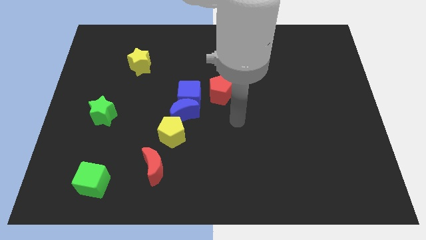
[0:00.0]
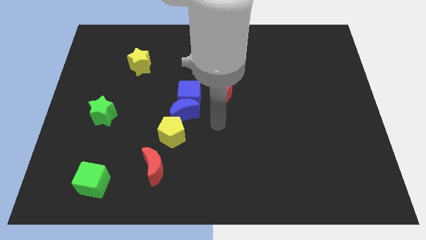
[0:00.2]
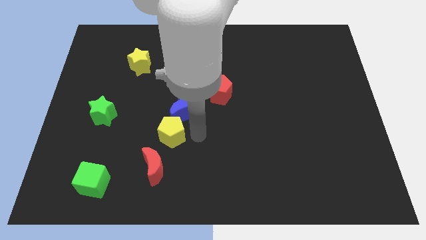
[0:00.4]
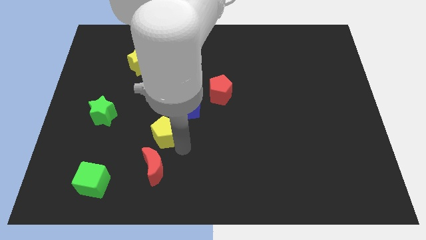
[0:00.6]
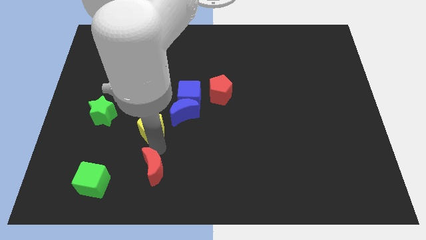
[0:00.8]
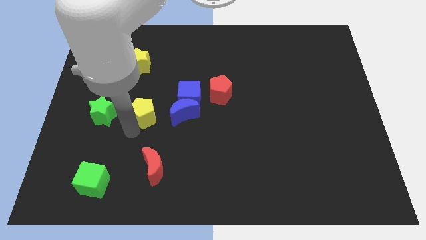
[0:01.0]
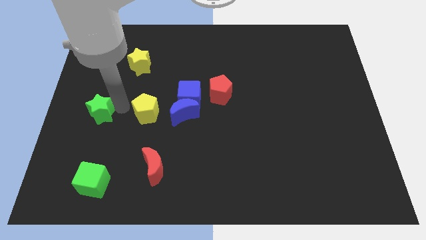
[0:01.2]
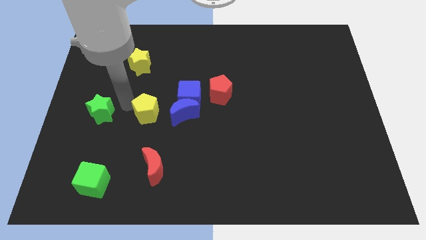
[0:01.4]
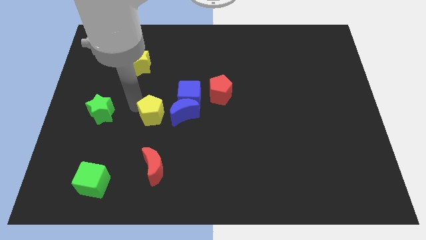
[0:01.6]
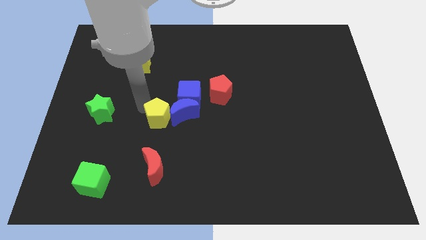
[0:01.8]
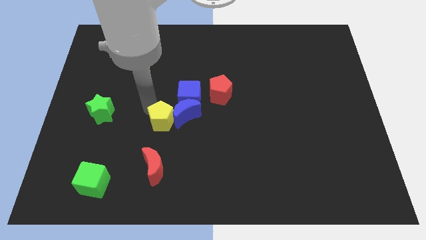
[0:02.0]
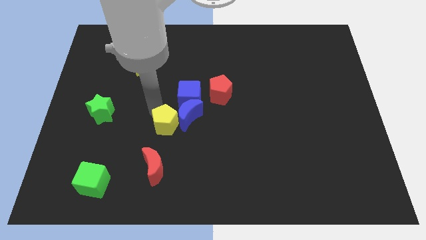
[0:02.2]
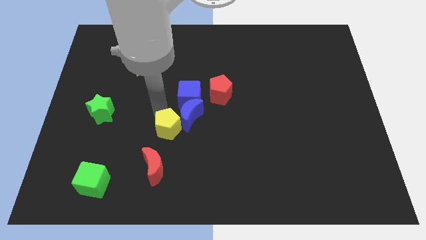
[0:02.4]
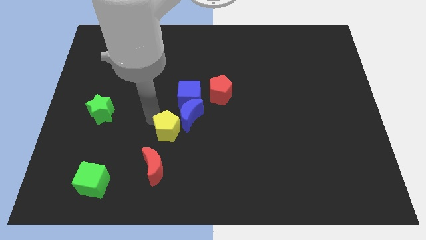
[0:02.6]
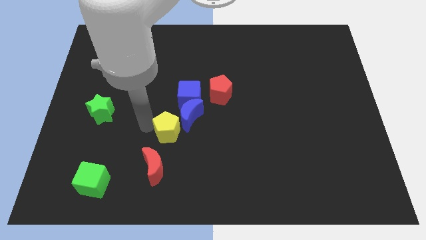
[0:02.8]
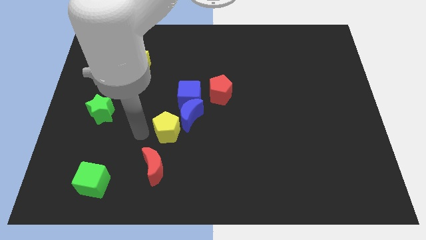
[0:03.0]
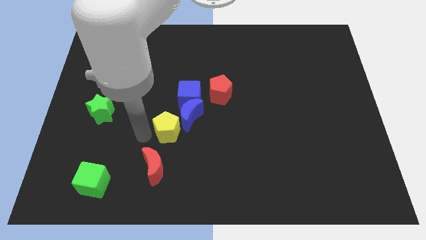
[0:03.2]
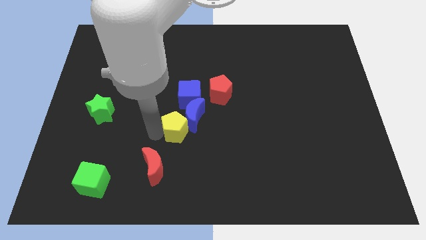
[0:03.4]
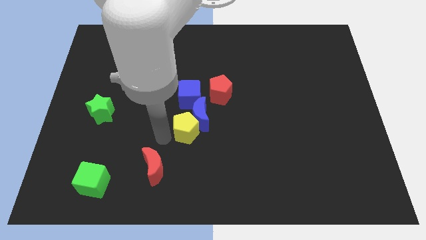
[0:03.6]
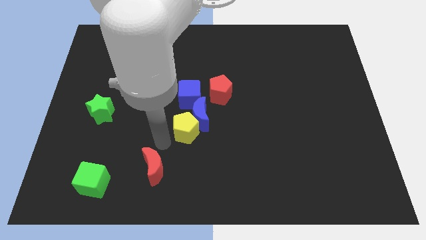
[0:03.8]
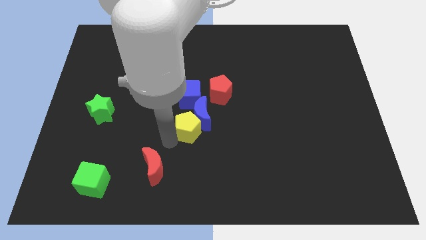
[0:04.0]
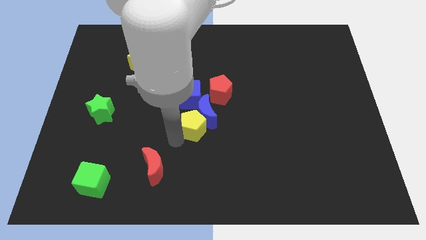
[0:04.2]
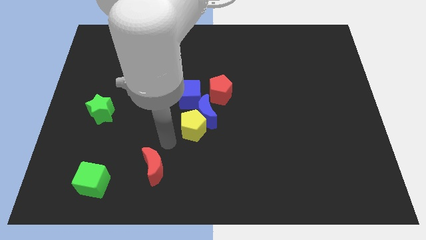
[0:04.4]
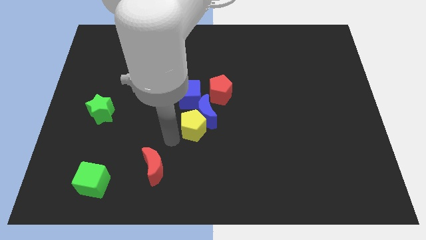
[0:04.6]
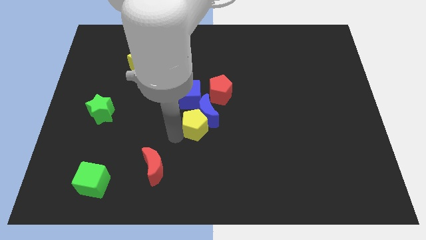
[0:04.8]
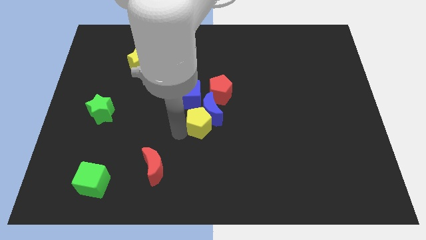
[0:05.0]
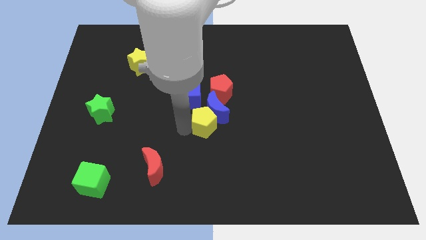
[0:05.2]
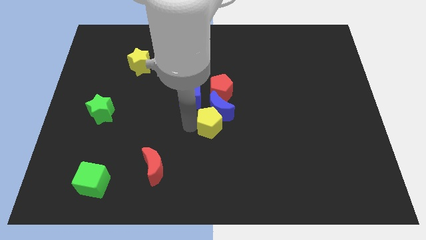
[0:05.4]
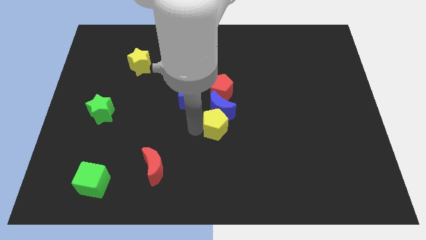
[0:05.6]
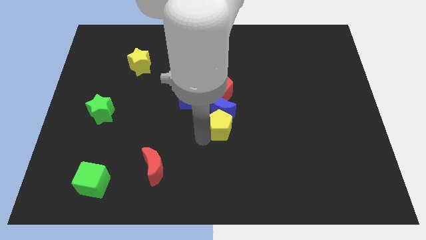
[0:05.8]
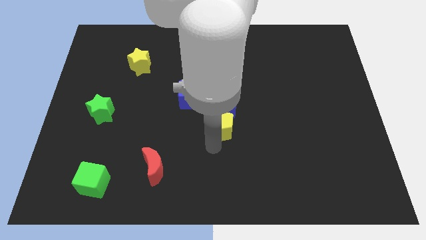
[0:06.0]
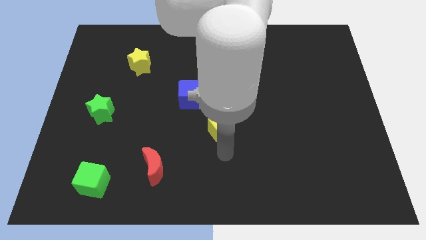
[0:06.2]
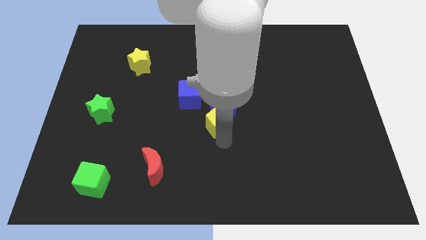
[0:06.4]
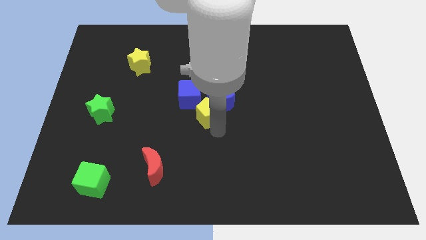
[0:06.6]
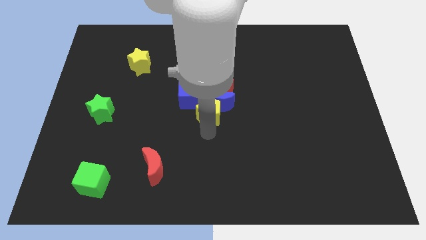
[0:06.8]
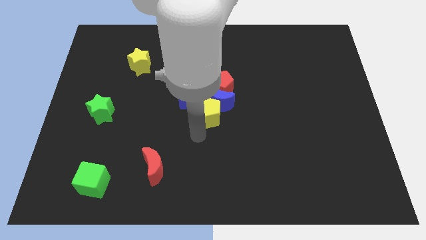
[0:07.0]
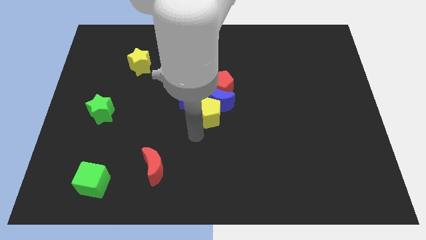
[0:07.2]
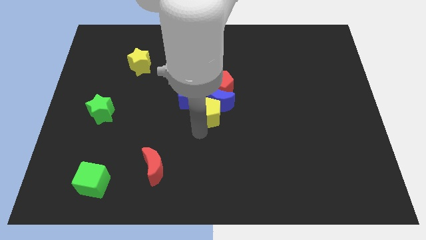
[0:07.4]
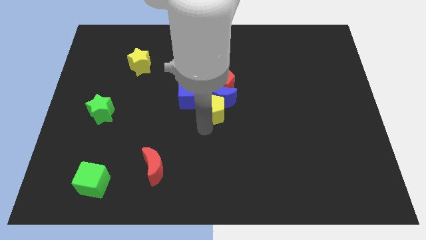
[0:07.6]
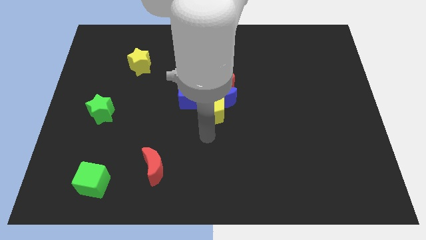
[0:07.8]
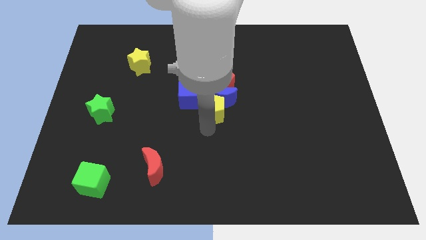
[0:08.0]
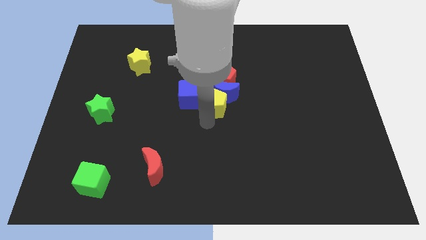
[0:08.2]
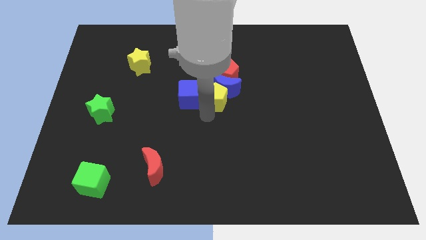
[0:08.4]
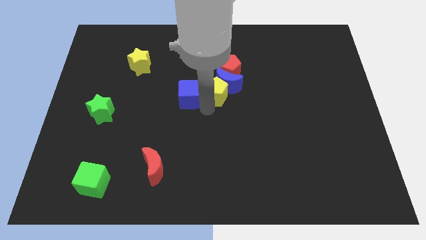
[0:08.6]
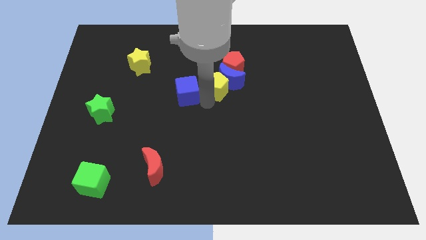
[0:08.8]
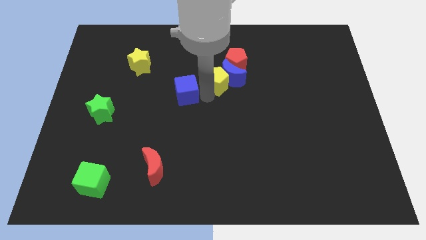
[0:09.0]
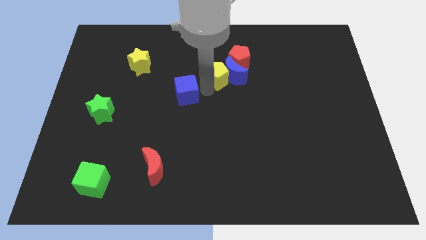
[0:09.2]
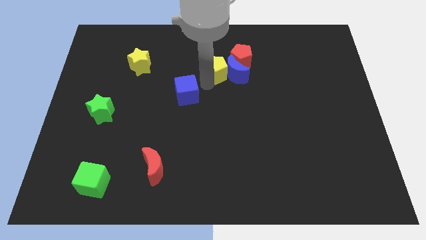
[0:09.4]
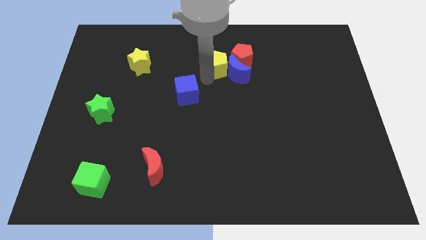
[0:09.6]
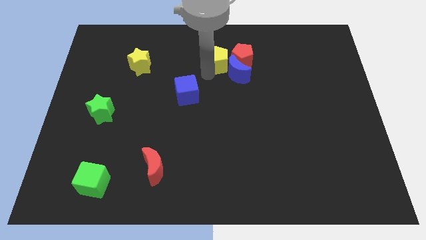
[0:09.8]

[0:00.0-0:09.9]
slide the yellow pentagon next to the red pentagon

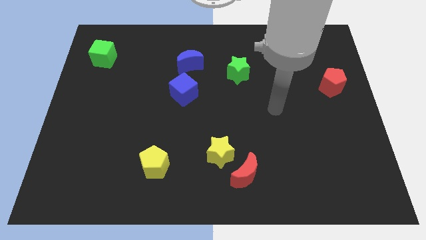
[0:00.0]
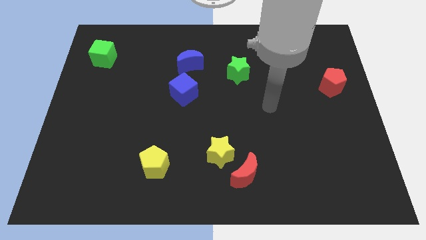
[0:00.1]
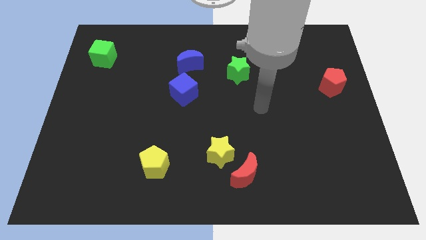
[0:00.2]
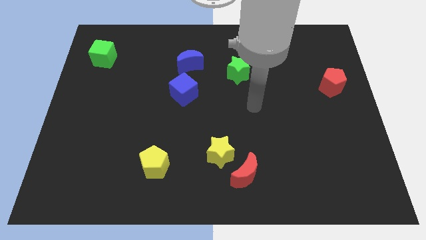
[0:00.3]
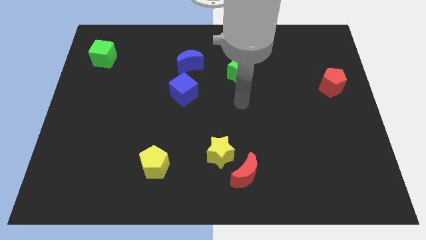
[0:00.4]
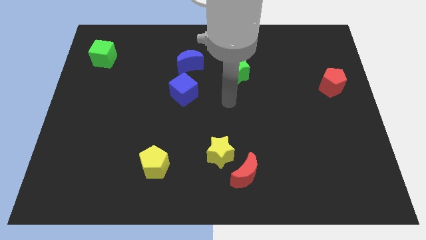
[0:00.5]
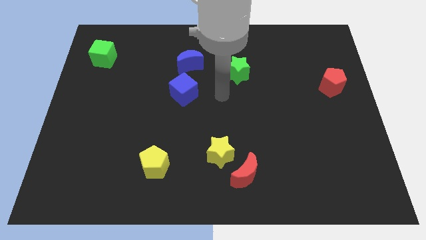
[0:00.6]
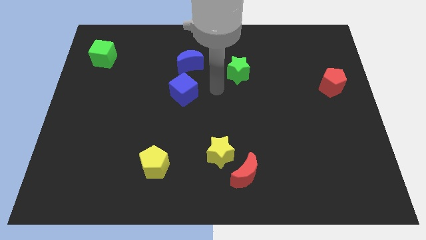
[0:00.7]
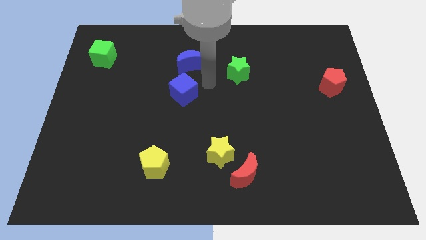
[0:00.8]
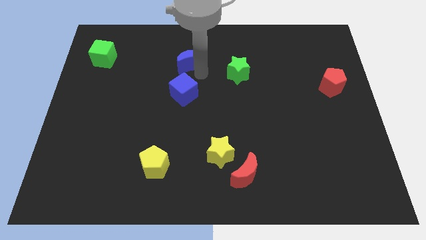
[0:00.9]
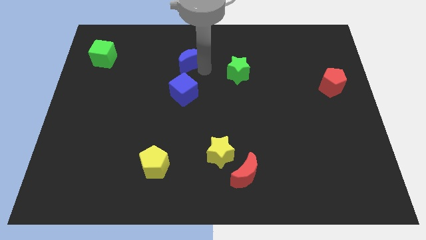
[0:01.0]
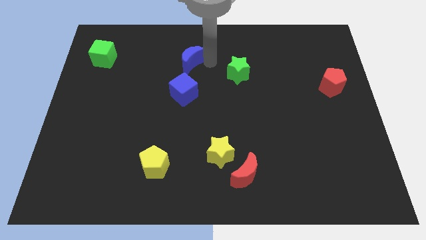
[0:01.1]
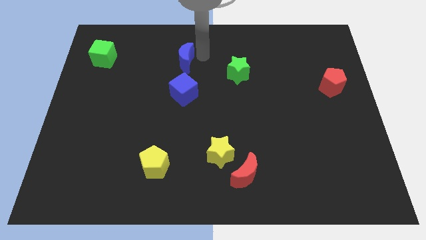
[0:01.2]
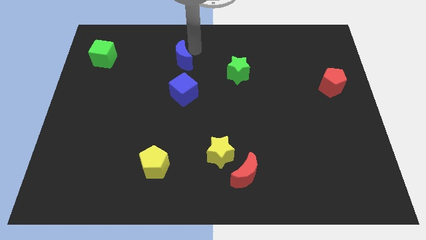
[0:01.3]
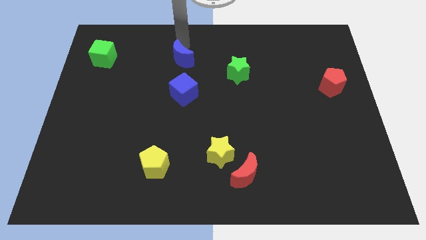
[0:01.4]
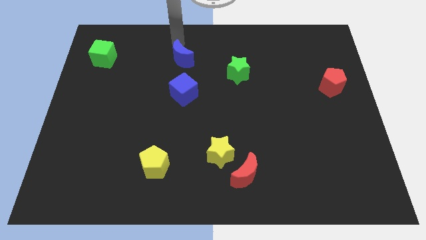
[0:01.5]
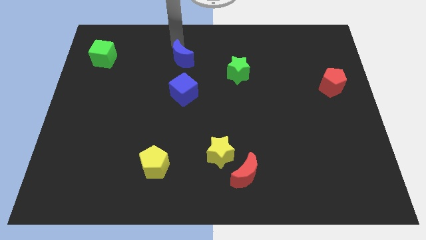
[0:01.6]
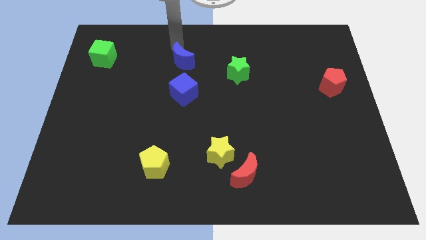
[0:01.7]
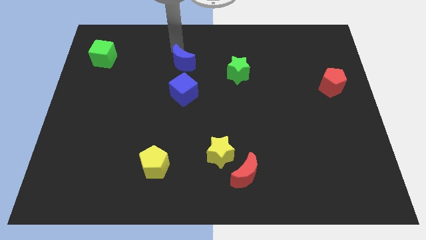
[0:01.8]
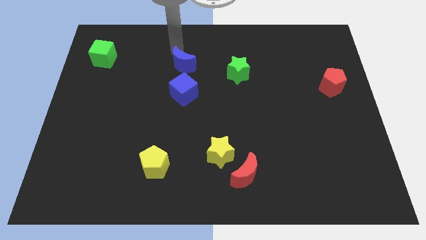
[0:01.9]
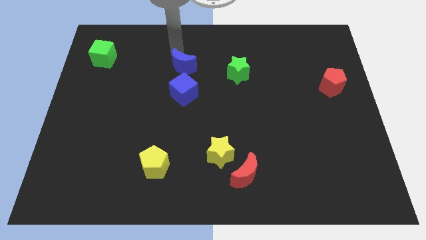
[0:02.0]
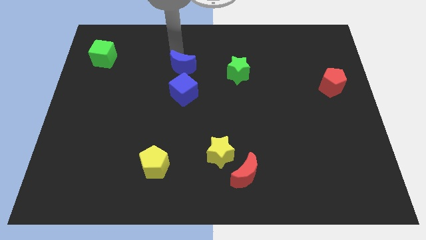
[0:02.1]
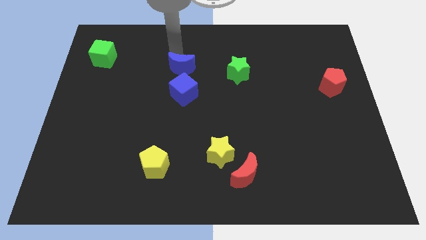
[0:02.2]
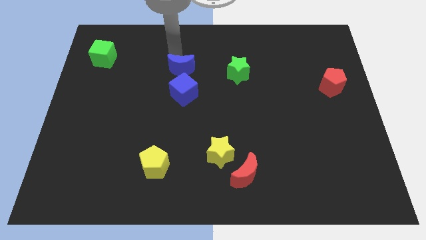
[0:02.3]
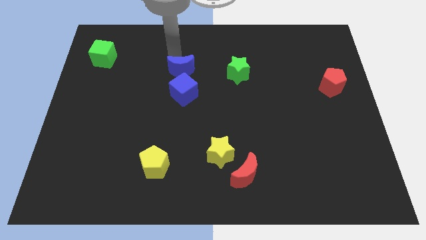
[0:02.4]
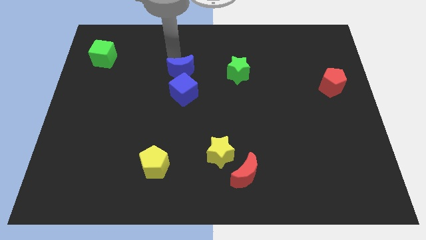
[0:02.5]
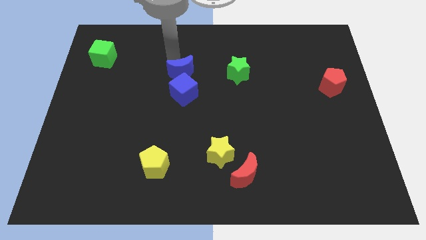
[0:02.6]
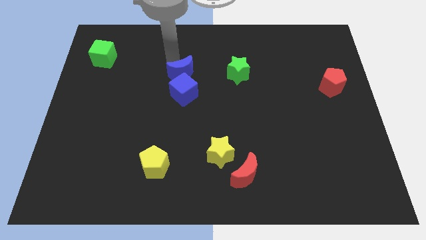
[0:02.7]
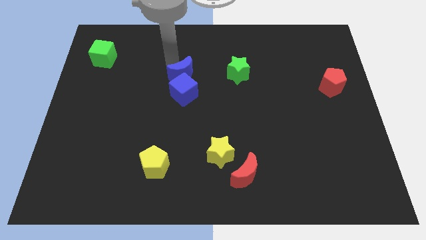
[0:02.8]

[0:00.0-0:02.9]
push the blue moon towards the blue cube

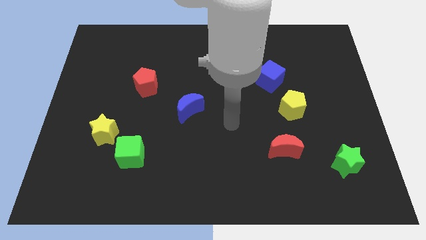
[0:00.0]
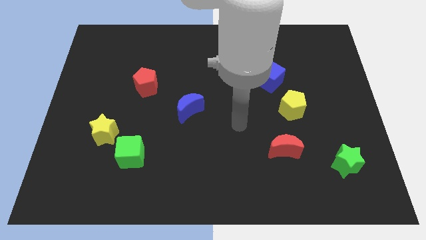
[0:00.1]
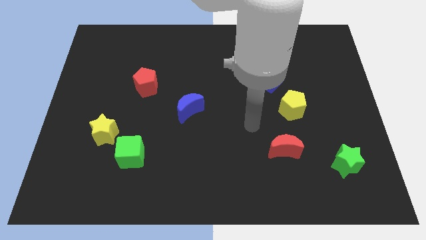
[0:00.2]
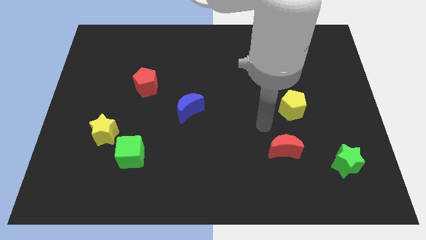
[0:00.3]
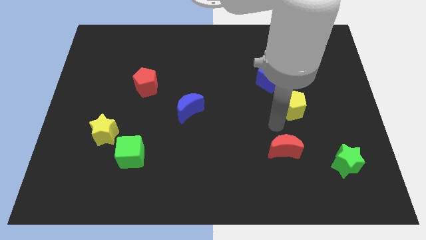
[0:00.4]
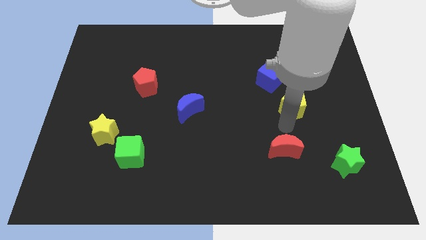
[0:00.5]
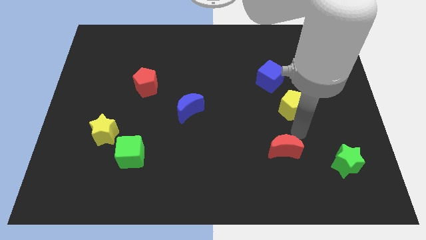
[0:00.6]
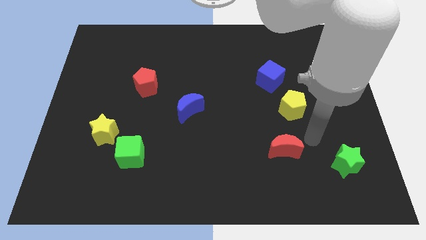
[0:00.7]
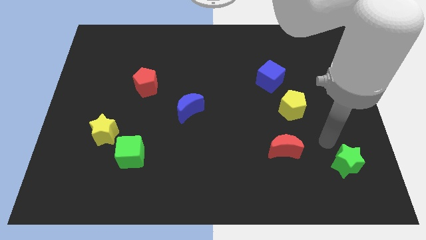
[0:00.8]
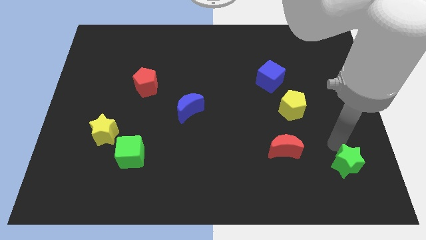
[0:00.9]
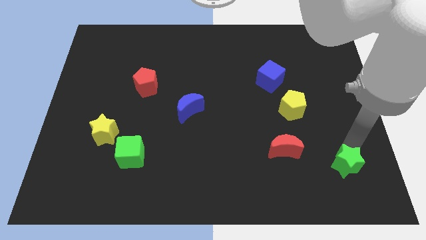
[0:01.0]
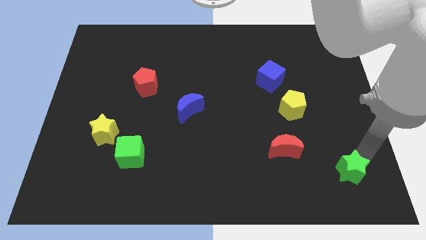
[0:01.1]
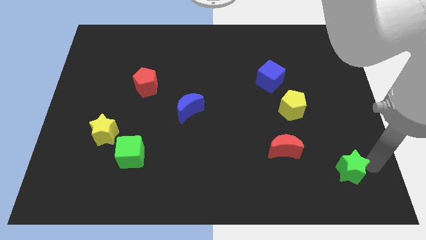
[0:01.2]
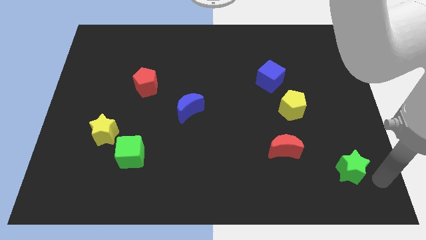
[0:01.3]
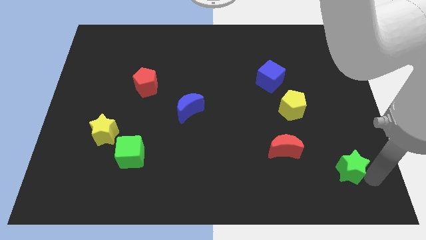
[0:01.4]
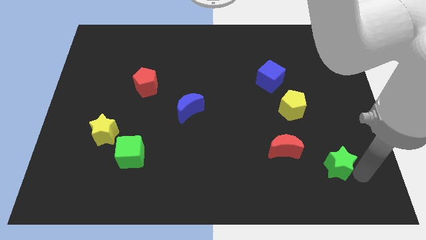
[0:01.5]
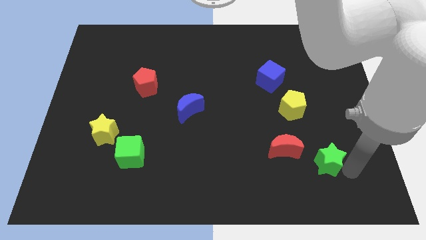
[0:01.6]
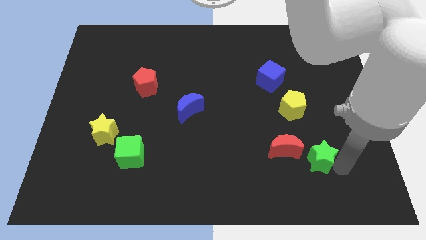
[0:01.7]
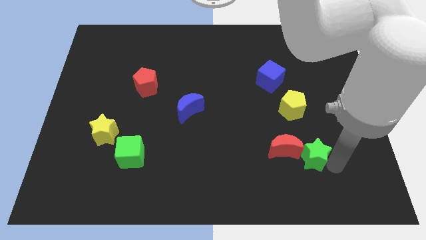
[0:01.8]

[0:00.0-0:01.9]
put the green star to the red moon
